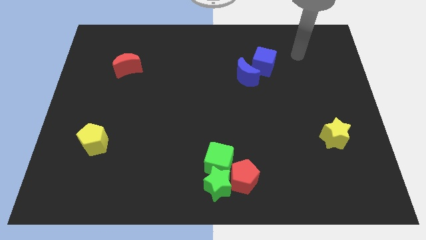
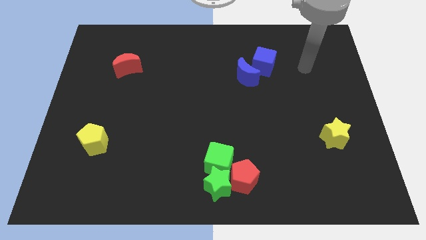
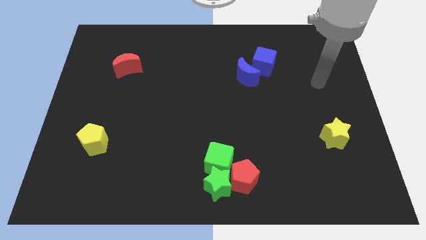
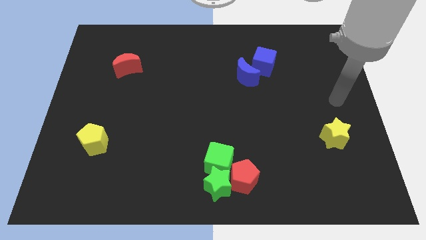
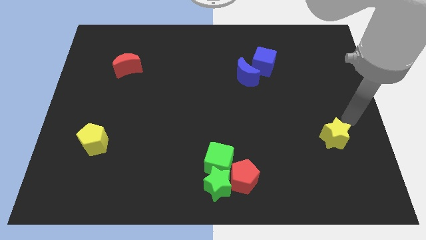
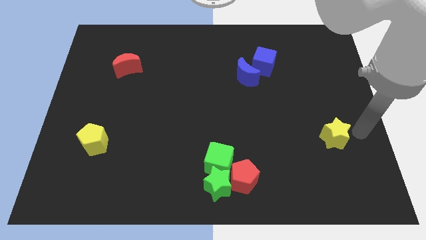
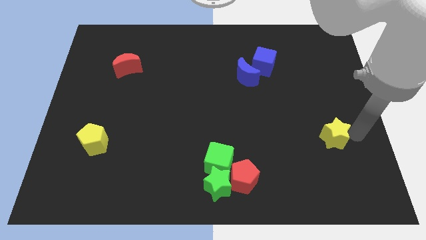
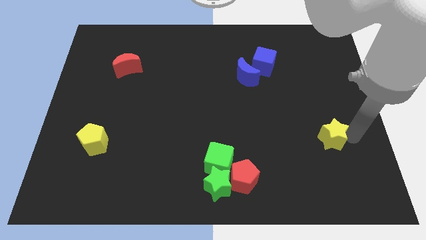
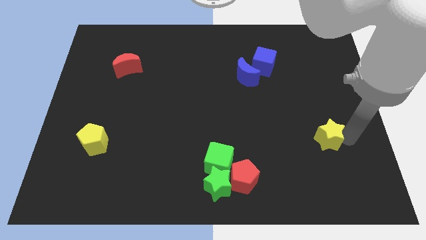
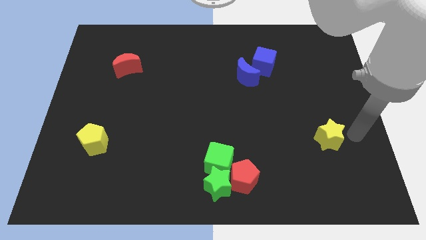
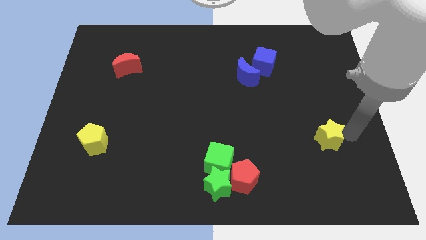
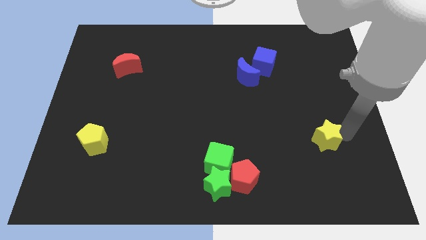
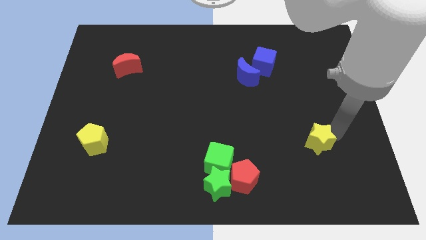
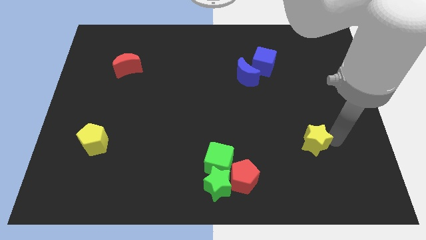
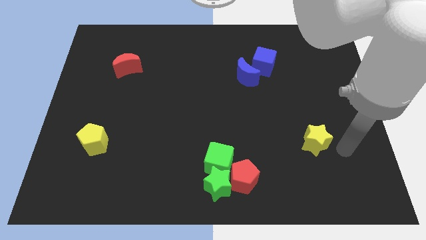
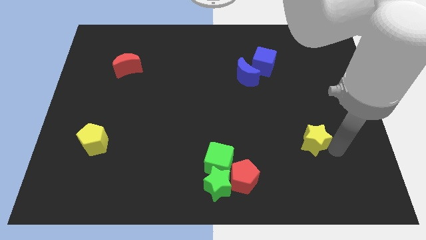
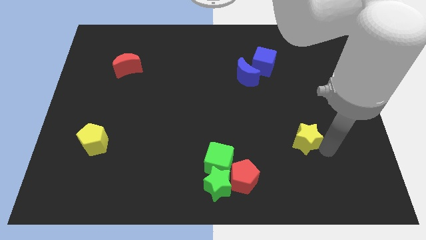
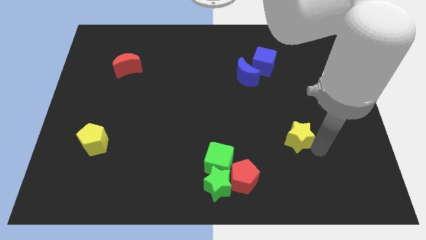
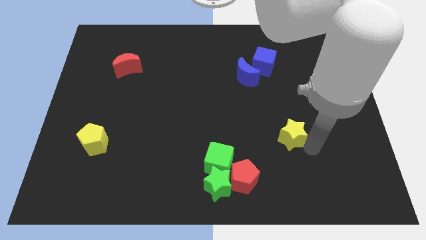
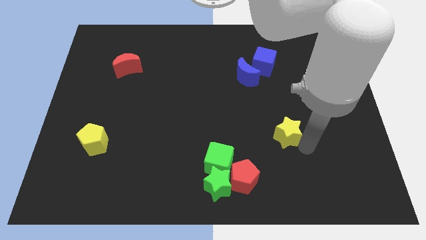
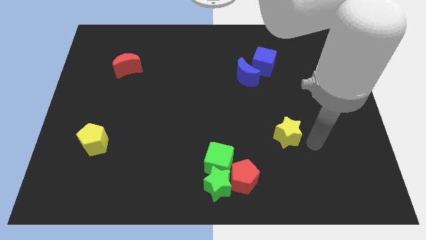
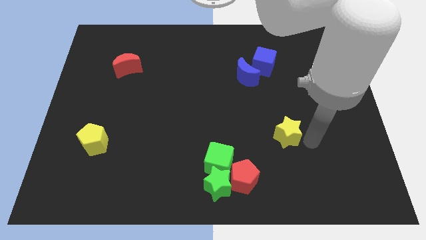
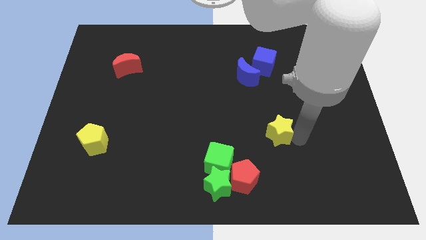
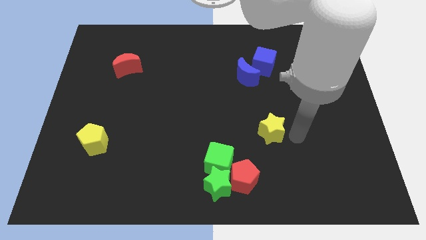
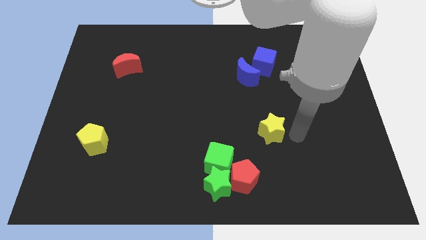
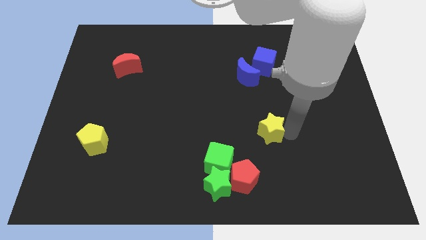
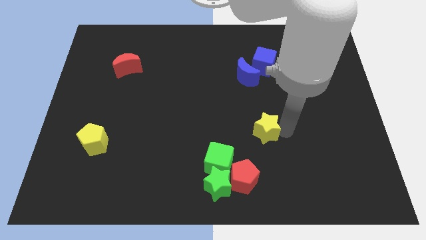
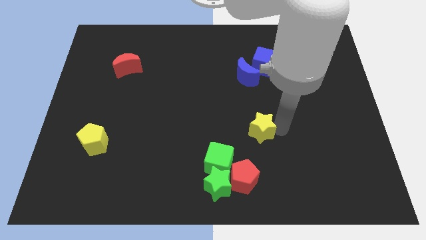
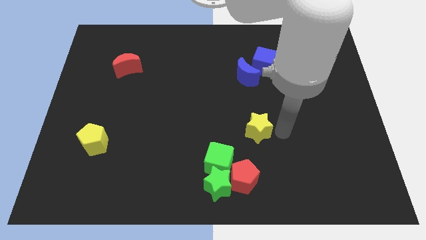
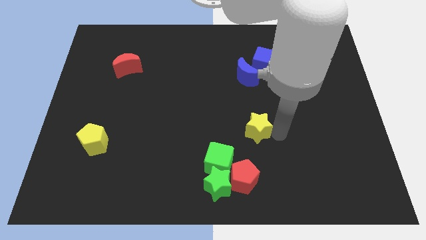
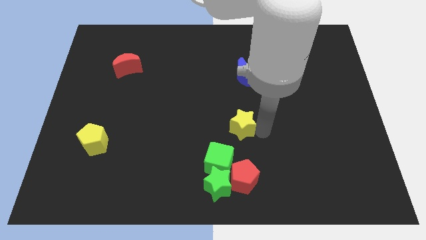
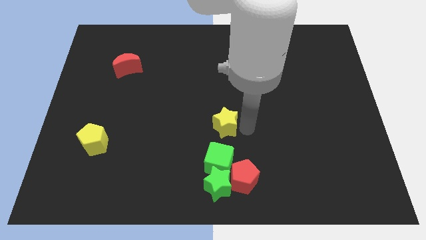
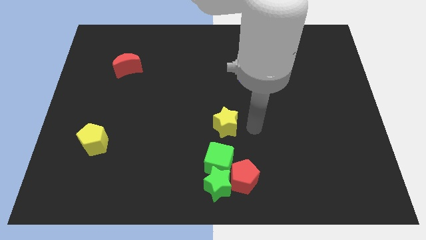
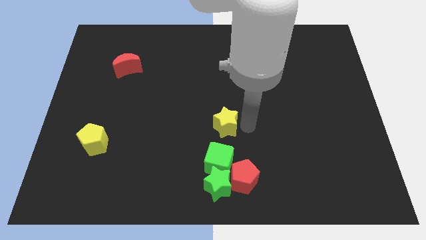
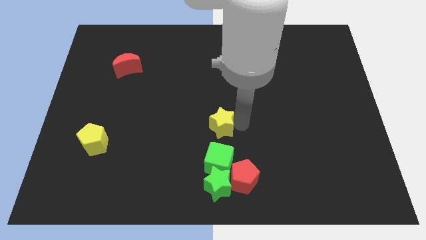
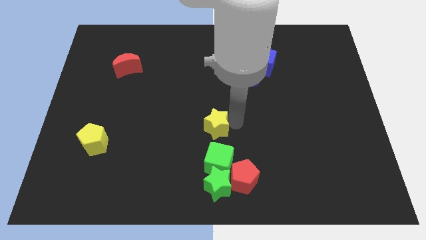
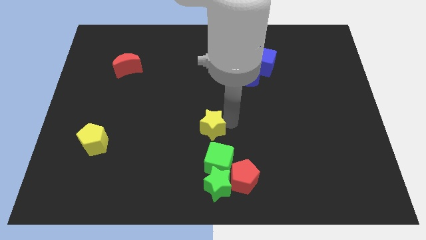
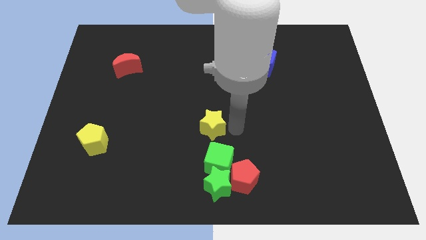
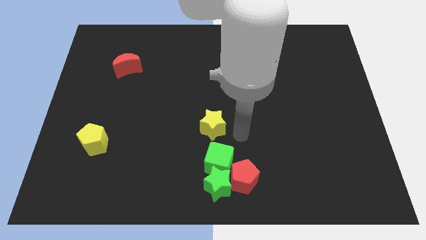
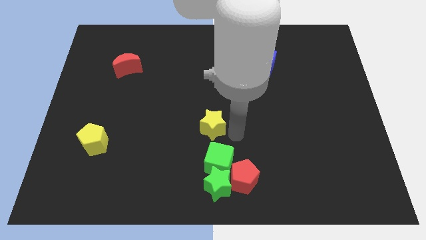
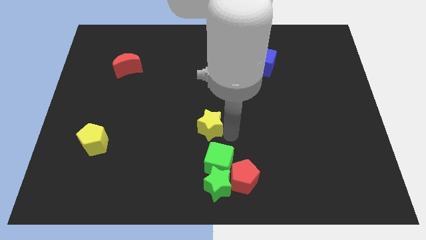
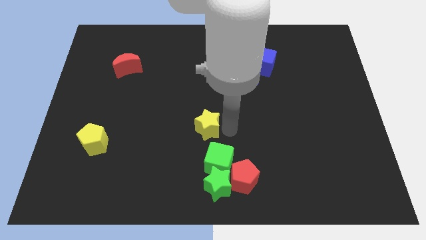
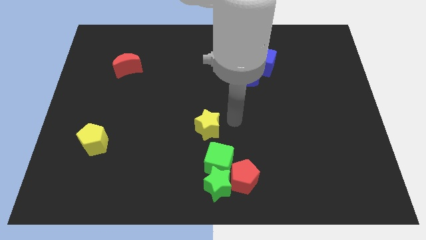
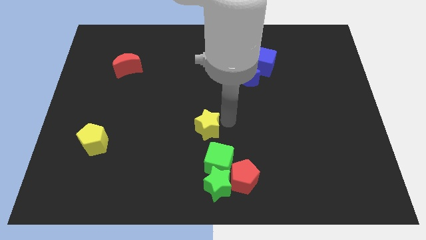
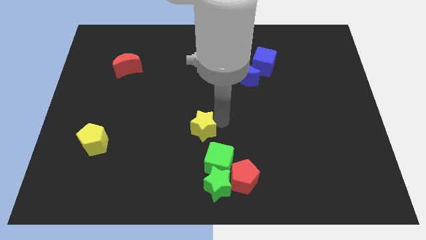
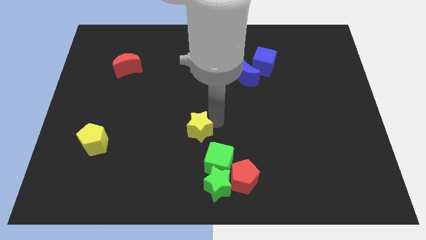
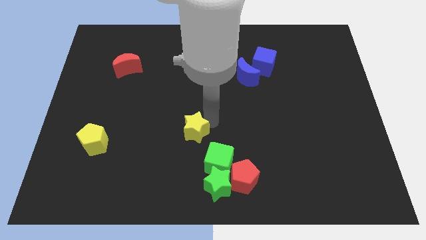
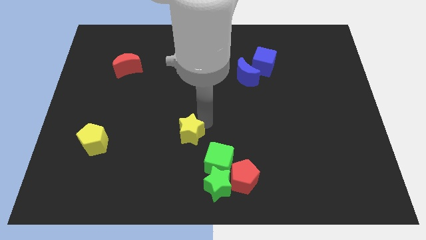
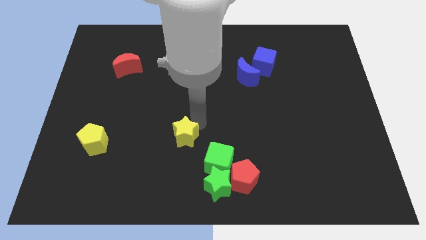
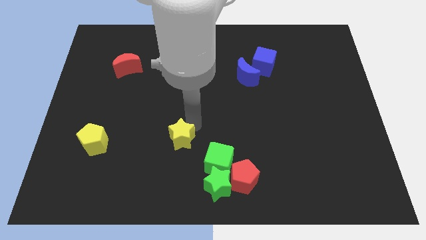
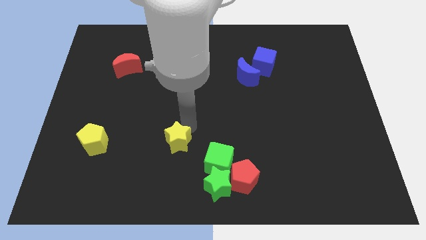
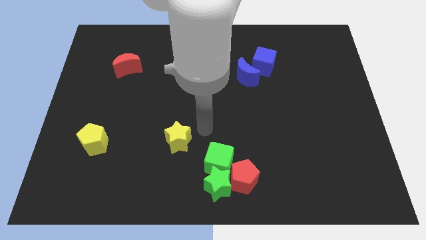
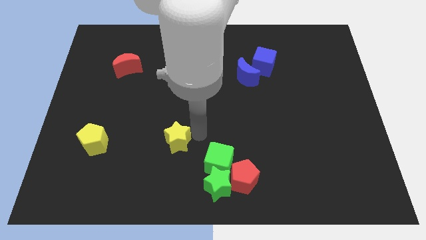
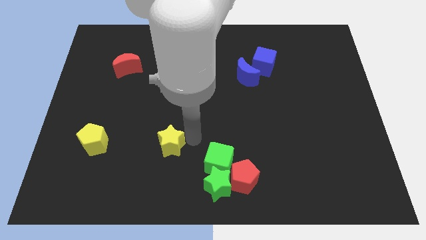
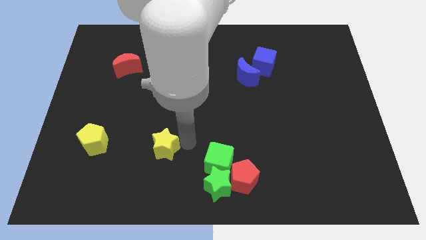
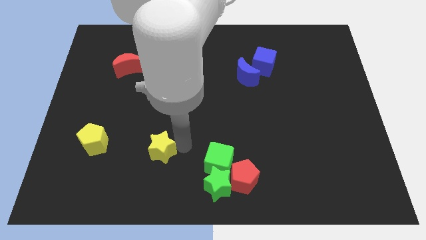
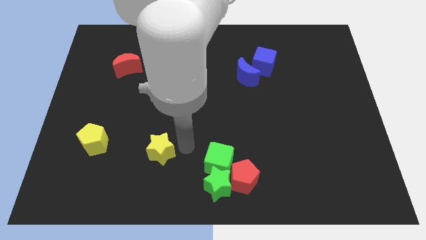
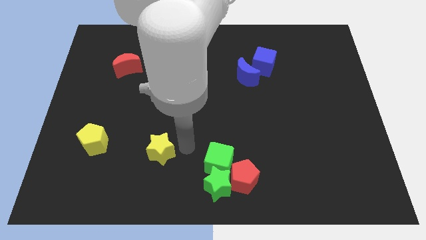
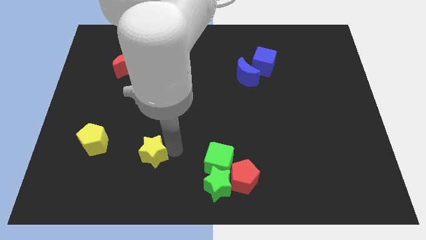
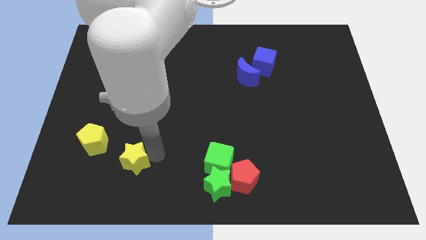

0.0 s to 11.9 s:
slide the yellow star to the bottom right of the yellow pentagon

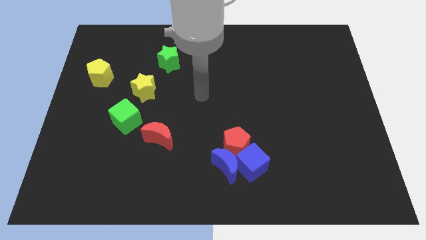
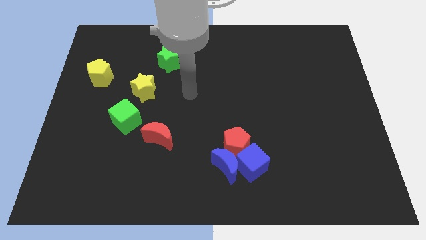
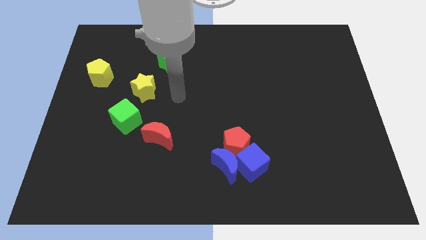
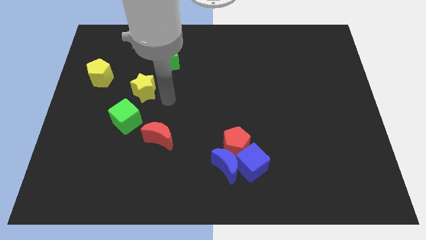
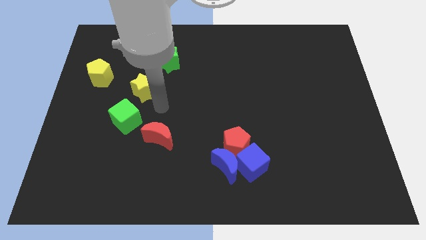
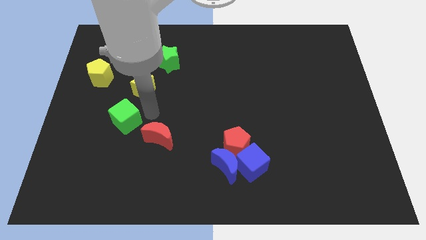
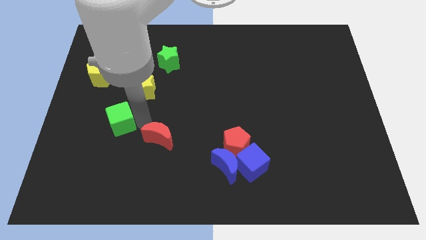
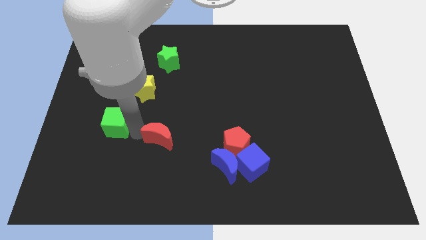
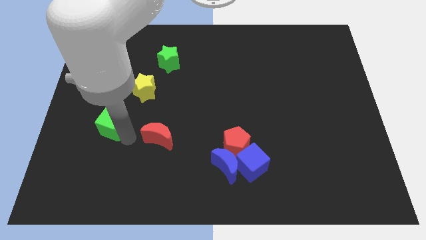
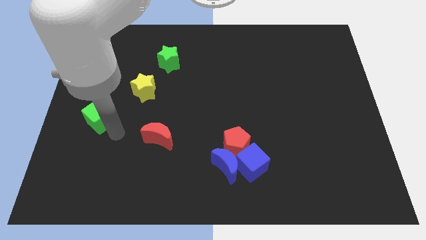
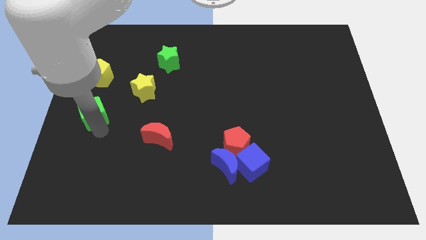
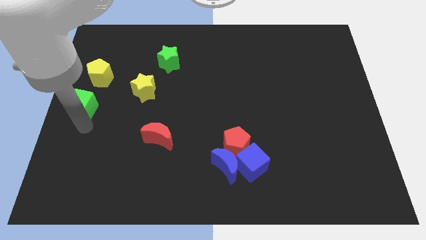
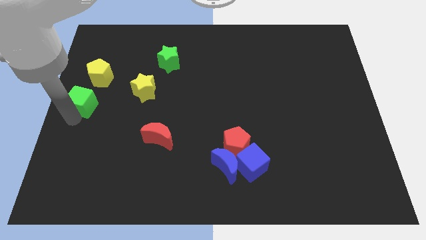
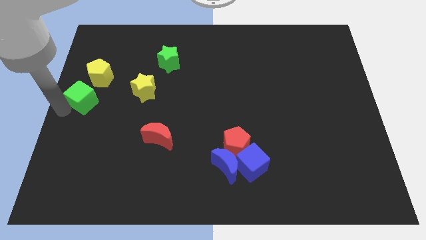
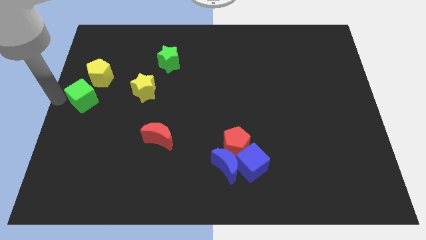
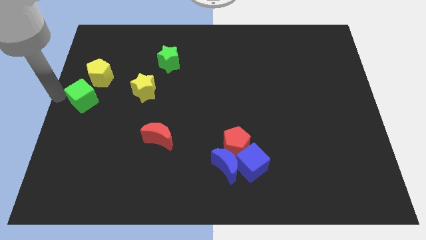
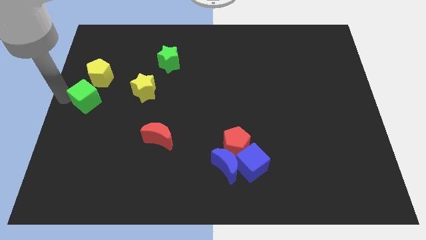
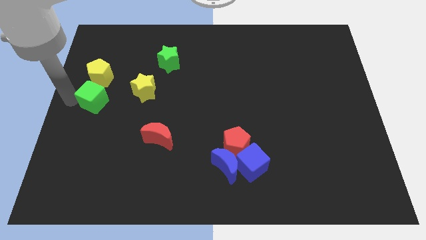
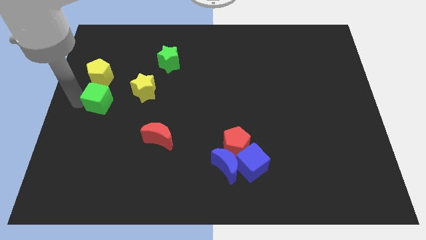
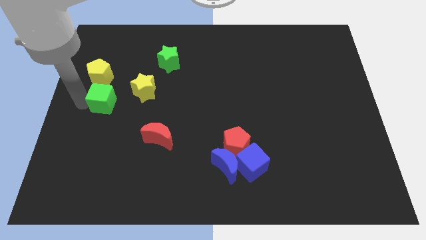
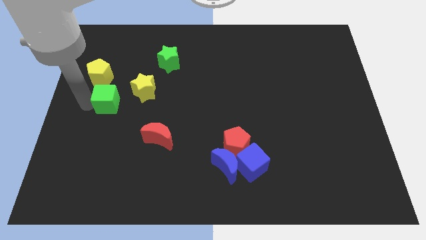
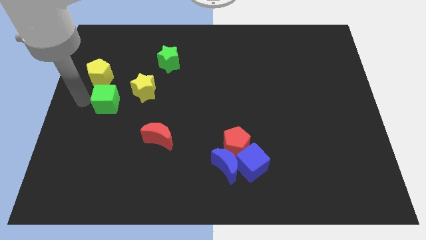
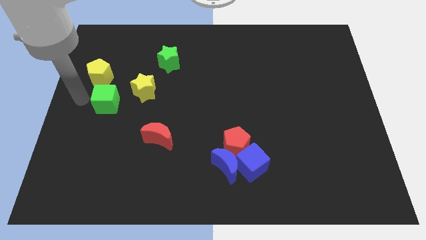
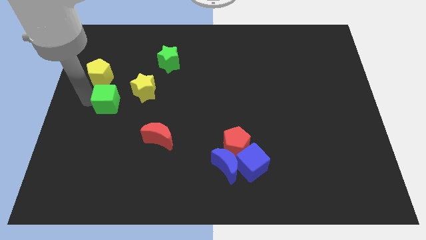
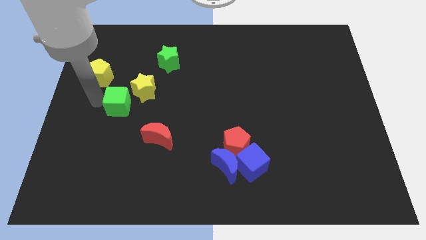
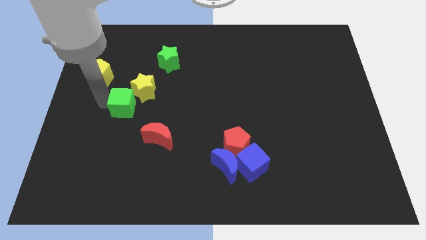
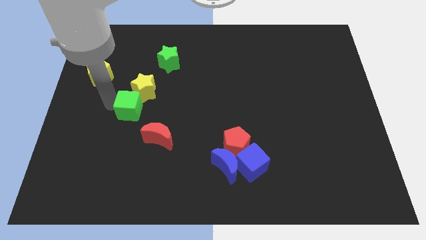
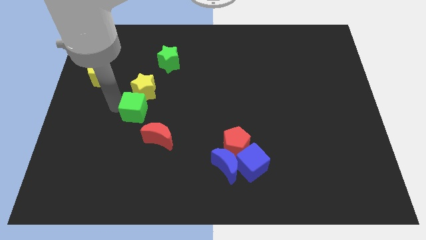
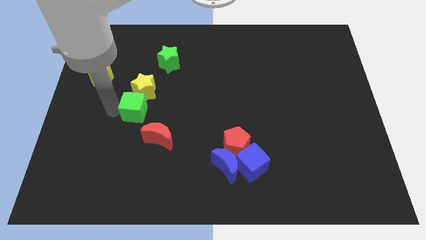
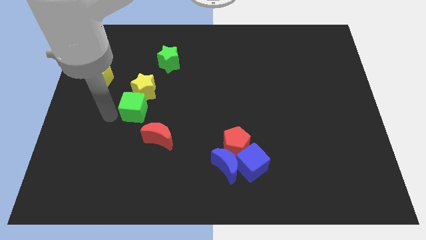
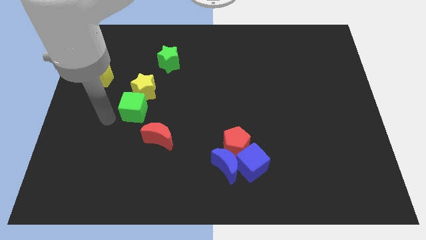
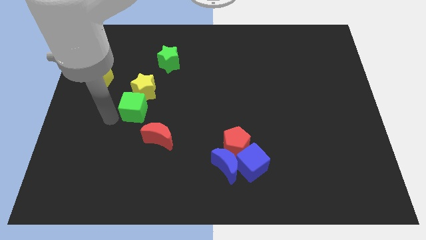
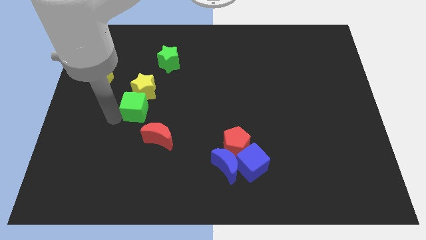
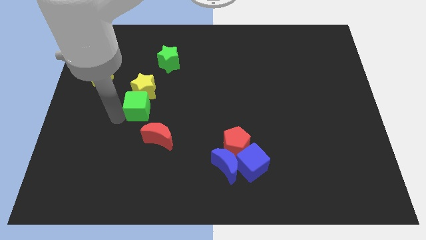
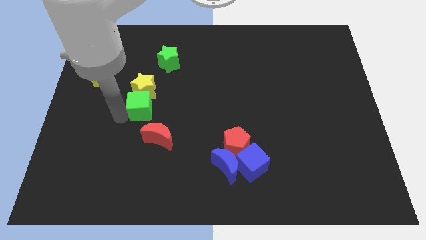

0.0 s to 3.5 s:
move the green cube above the red moon
